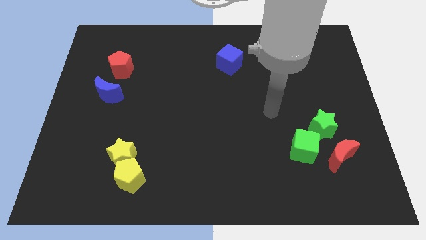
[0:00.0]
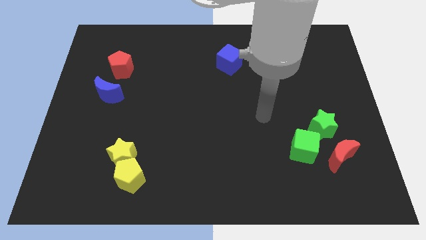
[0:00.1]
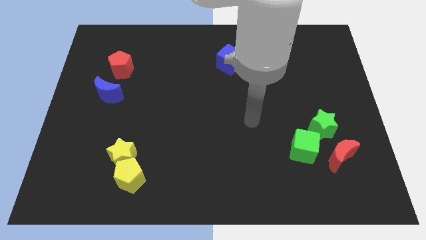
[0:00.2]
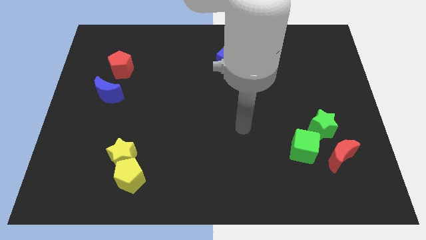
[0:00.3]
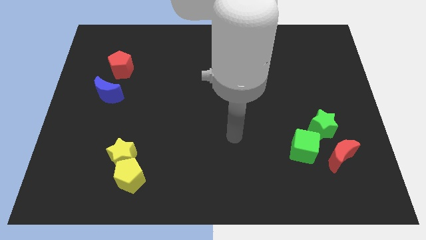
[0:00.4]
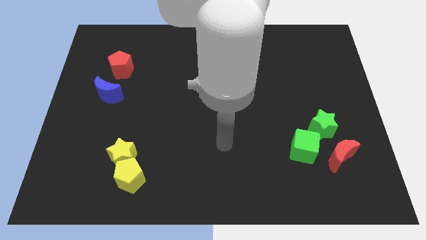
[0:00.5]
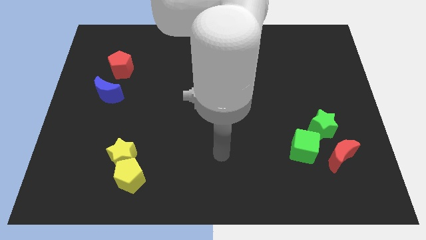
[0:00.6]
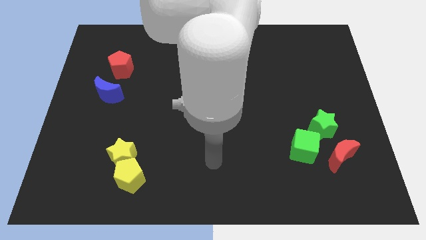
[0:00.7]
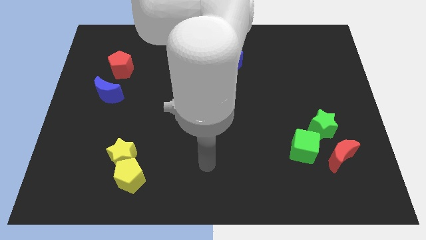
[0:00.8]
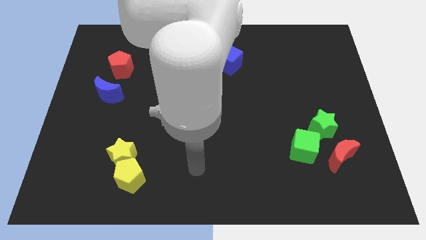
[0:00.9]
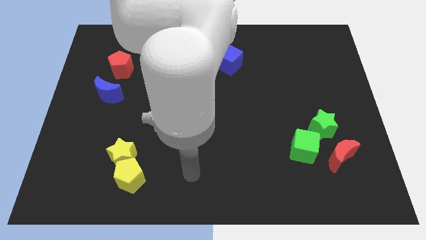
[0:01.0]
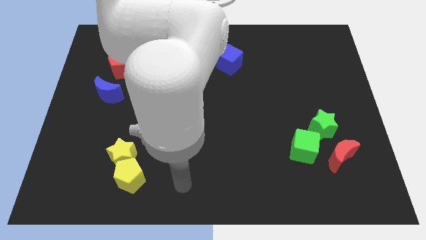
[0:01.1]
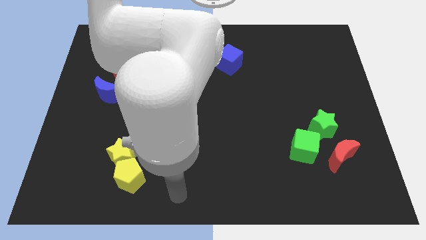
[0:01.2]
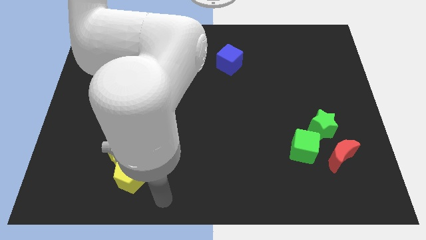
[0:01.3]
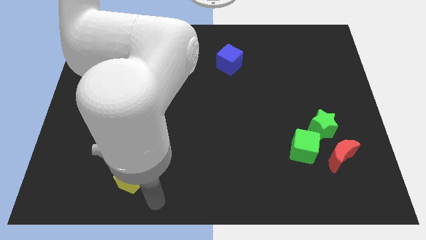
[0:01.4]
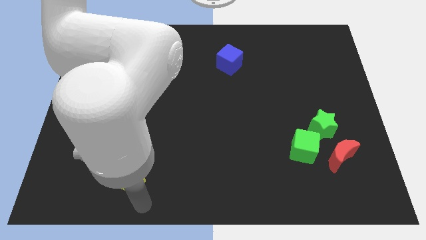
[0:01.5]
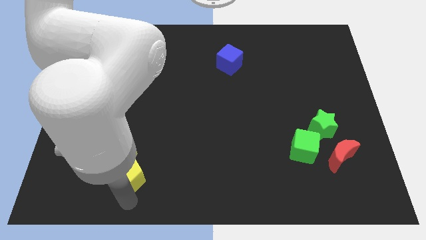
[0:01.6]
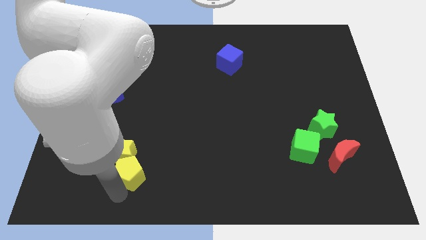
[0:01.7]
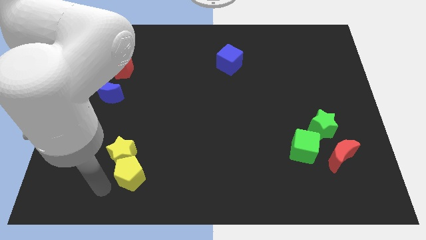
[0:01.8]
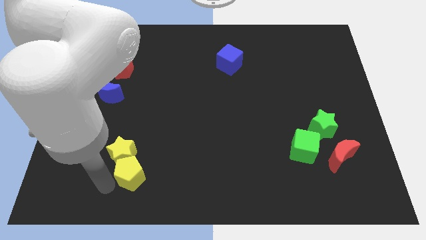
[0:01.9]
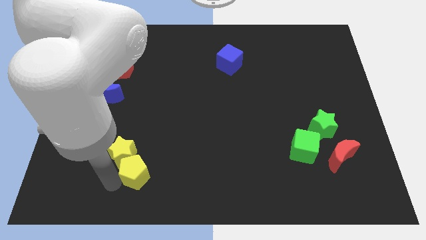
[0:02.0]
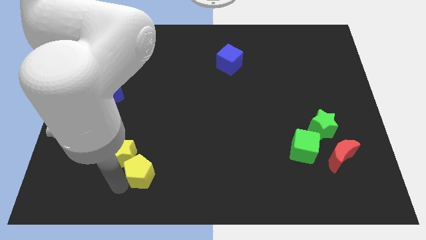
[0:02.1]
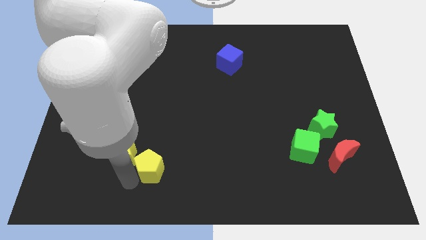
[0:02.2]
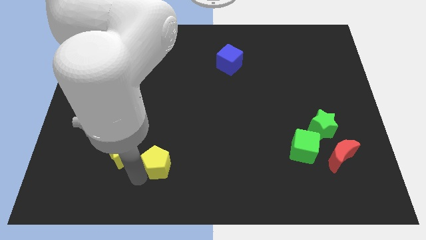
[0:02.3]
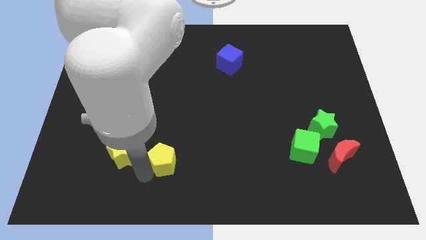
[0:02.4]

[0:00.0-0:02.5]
slightly move the yellow pentagon diagonally up and to the right

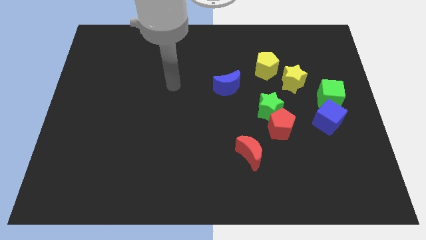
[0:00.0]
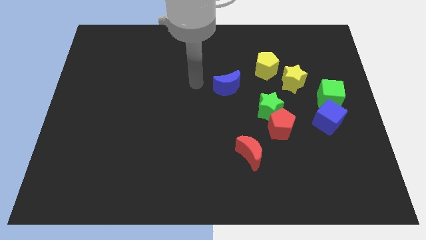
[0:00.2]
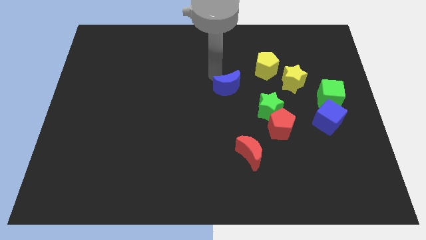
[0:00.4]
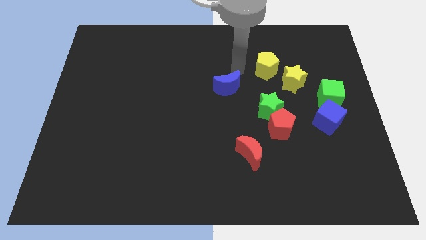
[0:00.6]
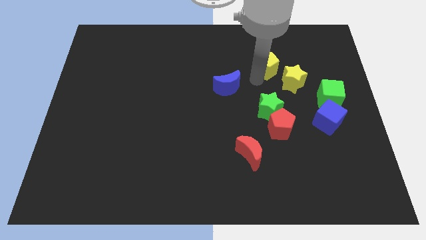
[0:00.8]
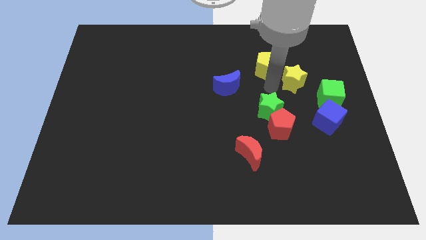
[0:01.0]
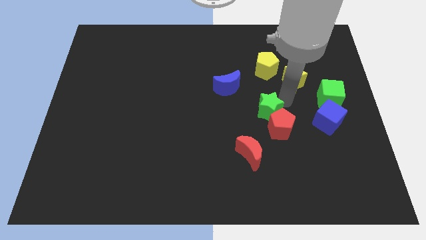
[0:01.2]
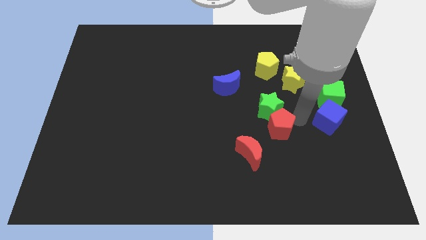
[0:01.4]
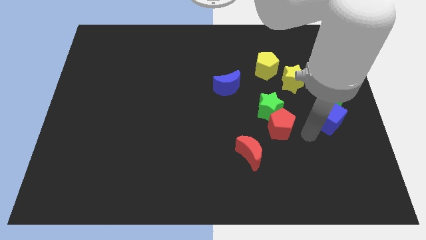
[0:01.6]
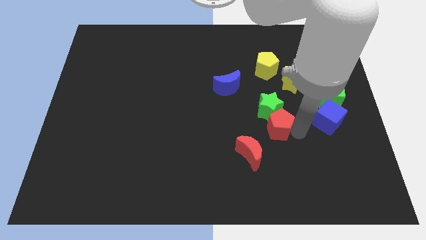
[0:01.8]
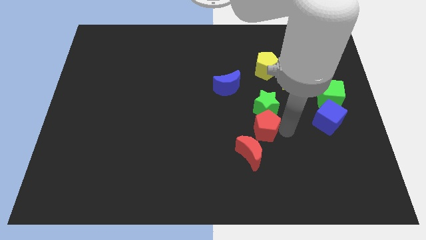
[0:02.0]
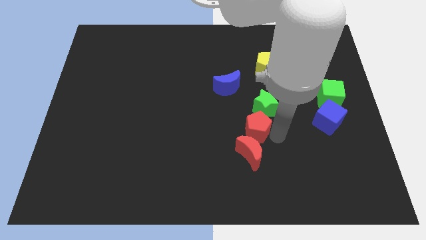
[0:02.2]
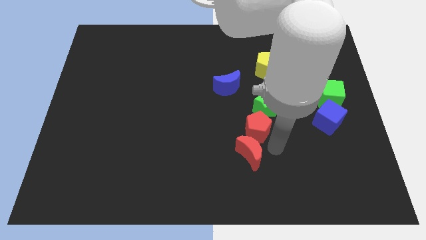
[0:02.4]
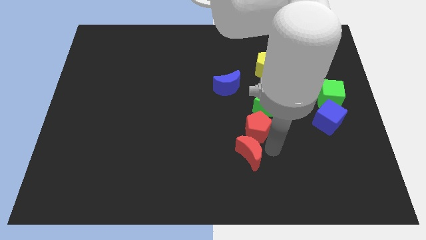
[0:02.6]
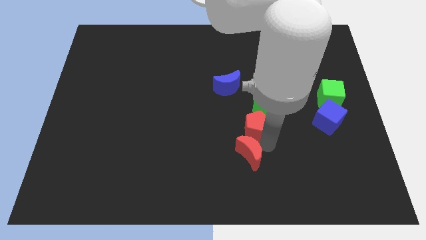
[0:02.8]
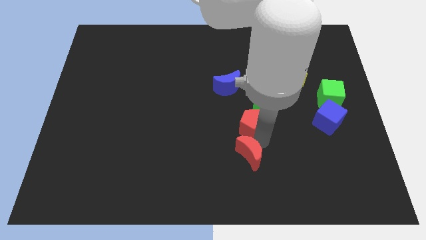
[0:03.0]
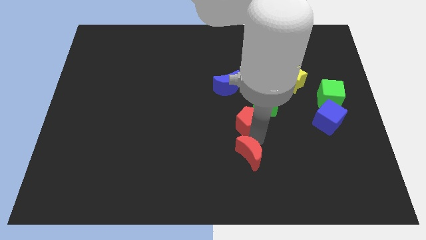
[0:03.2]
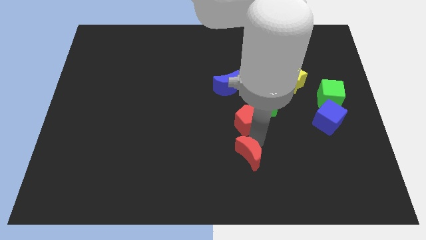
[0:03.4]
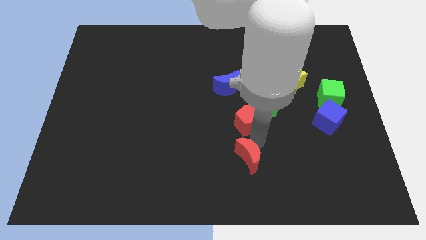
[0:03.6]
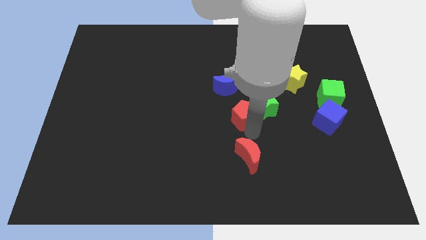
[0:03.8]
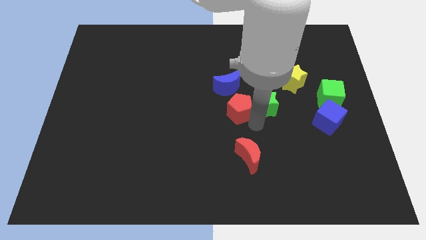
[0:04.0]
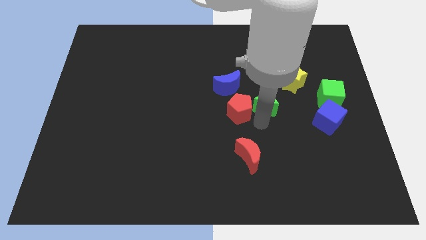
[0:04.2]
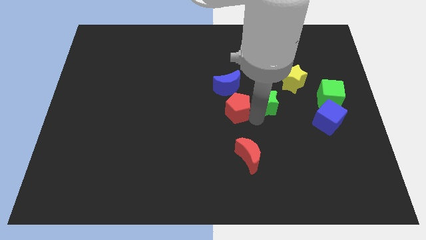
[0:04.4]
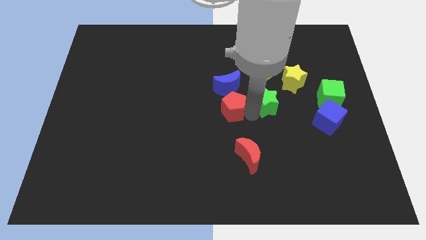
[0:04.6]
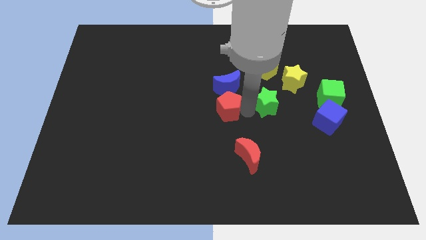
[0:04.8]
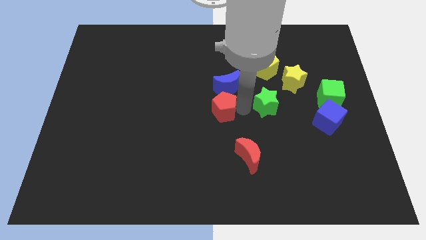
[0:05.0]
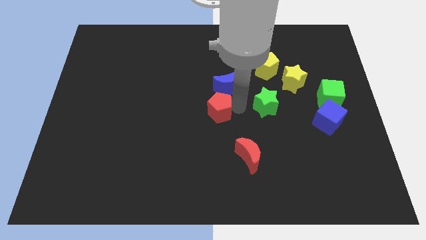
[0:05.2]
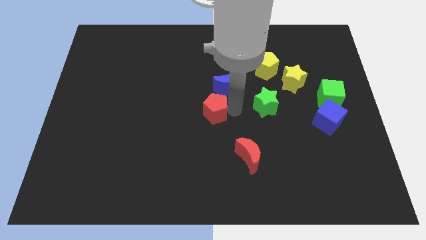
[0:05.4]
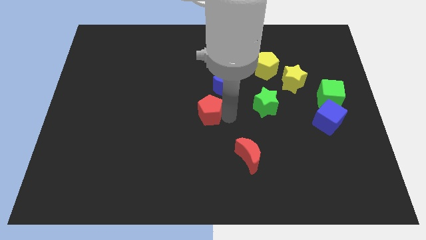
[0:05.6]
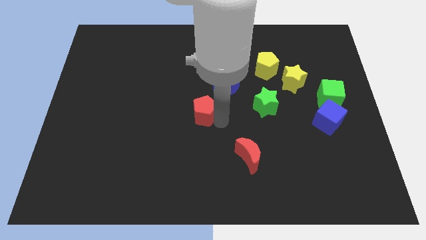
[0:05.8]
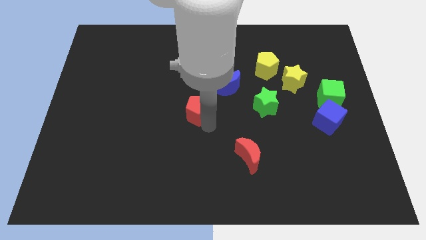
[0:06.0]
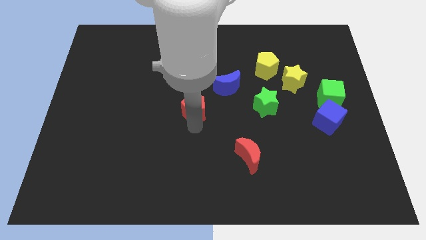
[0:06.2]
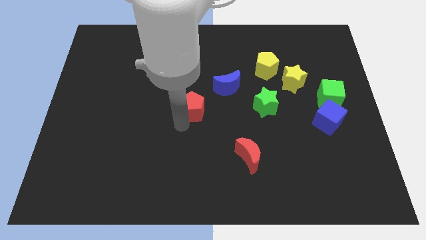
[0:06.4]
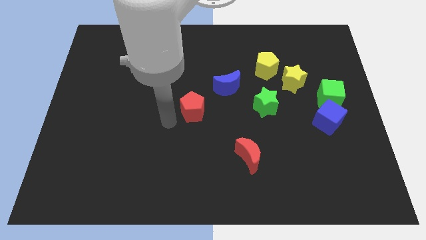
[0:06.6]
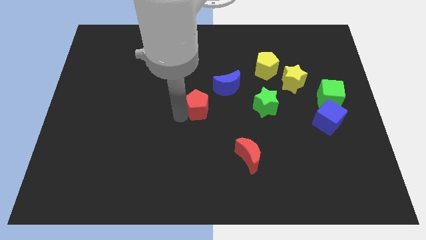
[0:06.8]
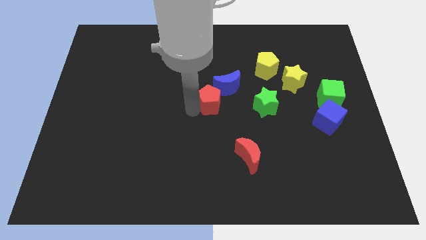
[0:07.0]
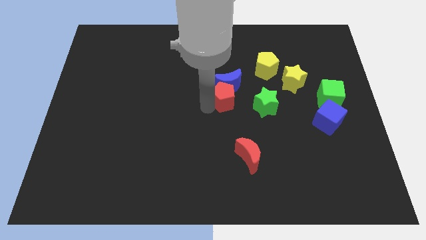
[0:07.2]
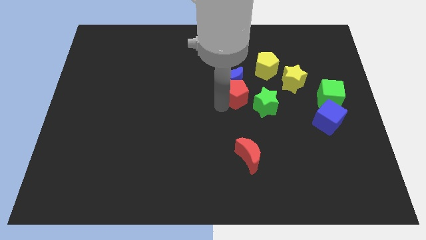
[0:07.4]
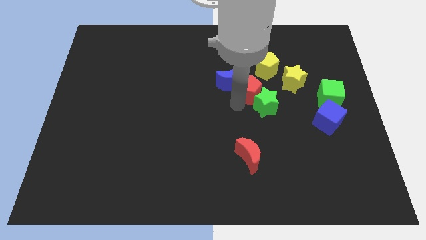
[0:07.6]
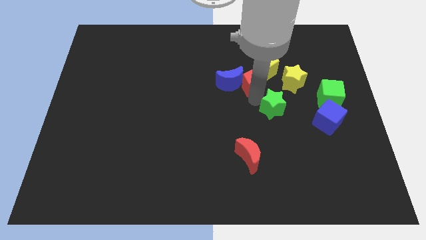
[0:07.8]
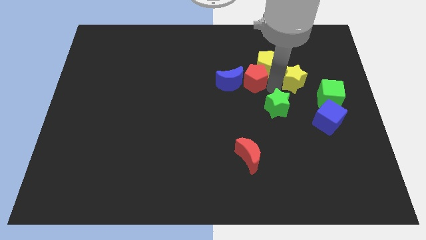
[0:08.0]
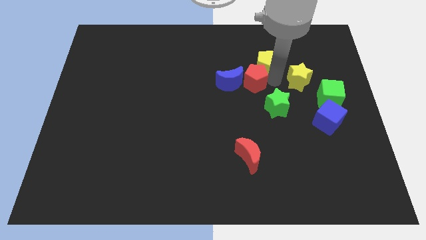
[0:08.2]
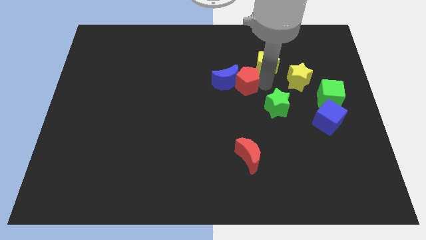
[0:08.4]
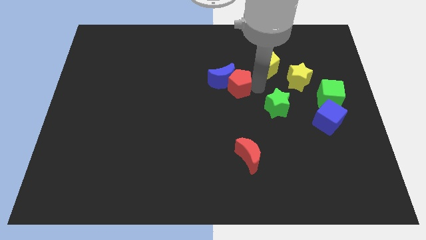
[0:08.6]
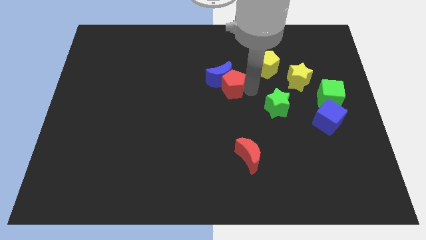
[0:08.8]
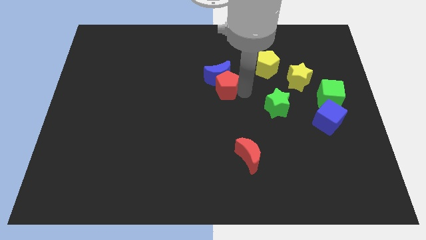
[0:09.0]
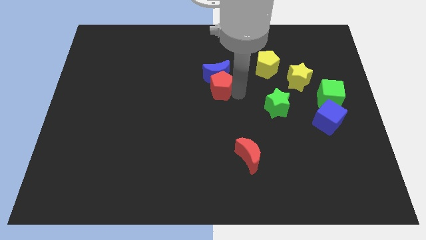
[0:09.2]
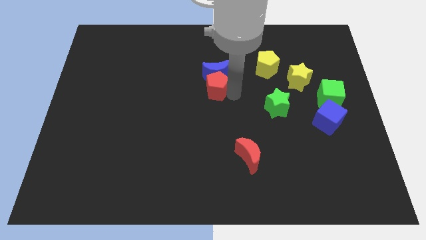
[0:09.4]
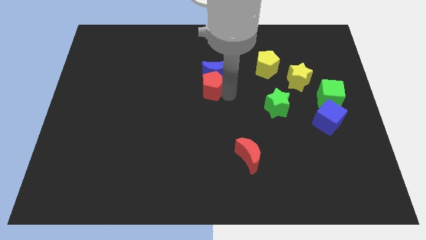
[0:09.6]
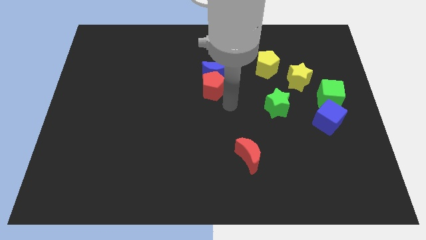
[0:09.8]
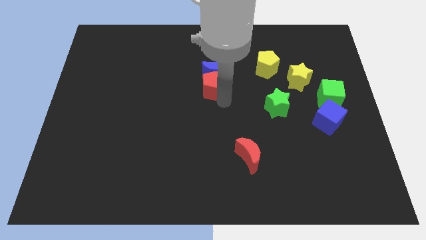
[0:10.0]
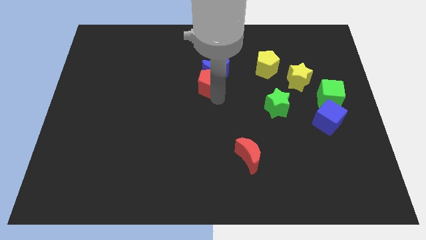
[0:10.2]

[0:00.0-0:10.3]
move the red pentagon up and to the left

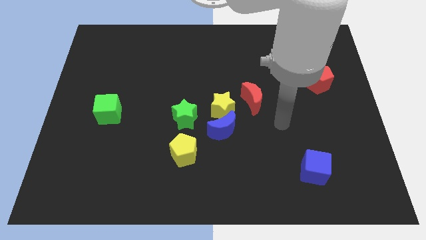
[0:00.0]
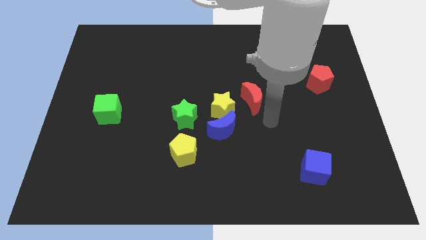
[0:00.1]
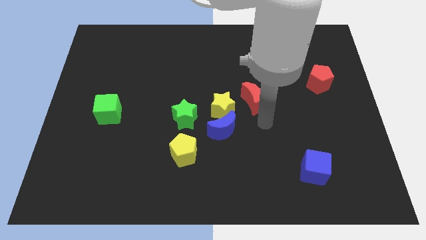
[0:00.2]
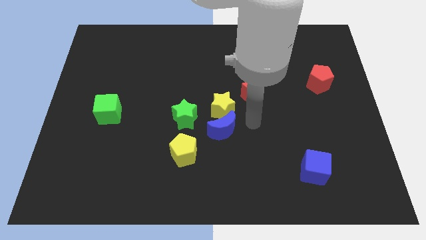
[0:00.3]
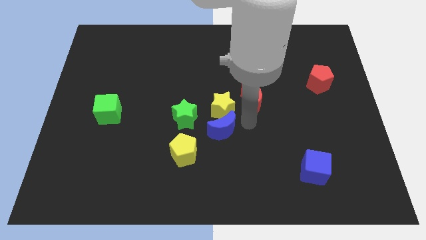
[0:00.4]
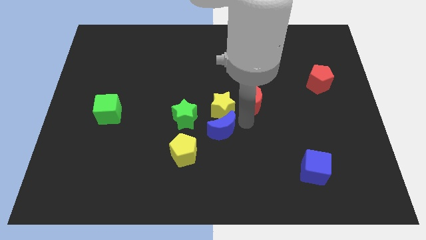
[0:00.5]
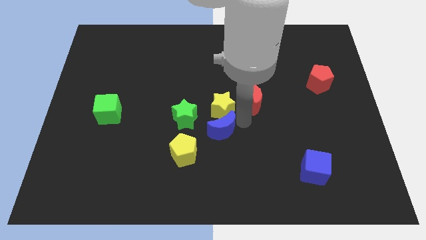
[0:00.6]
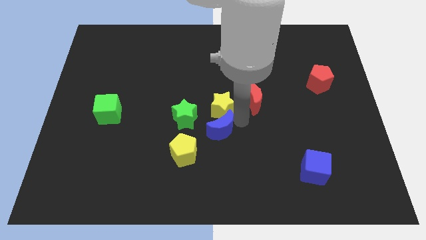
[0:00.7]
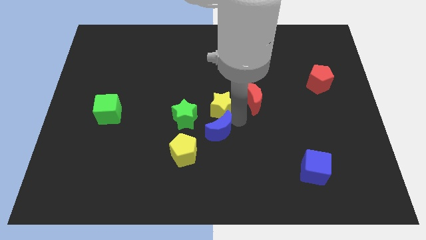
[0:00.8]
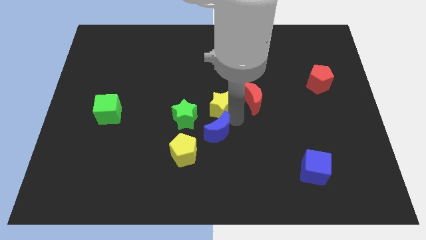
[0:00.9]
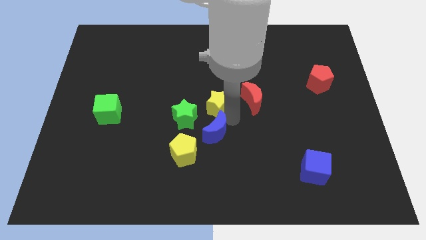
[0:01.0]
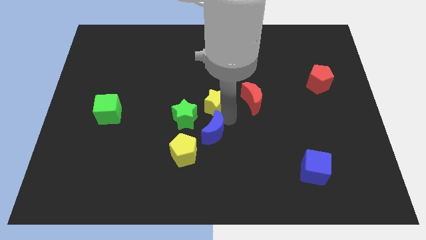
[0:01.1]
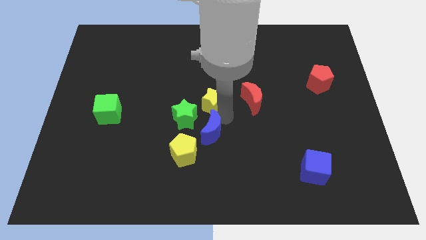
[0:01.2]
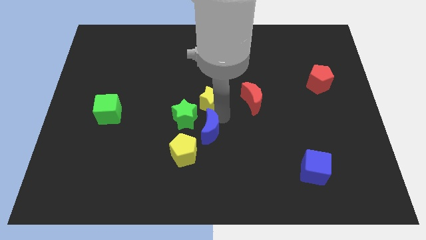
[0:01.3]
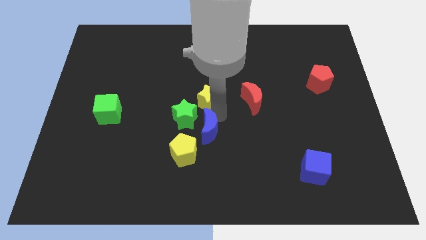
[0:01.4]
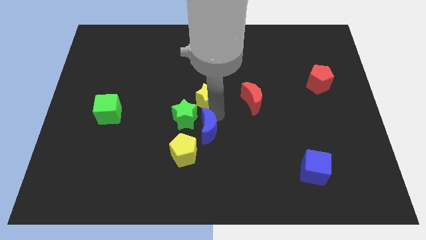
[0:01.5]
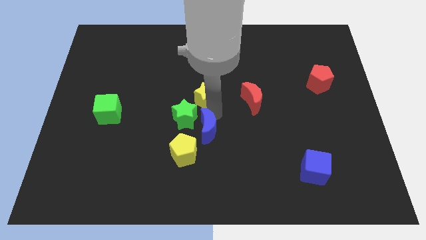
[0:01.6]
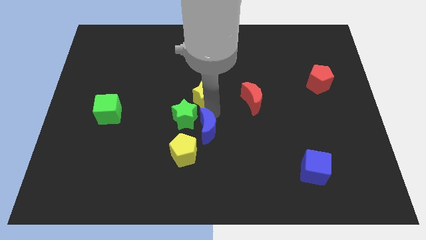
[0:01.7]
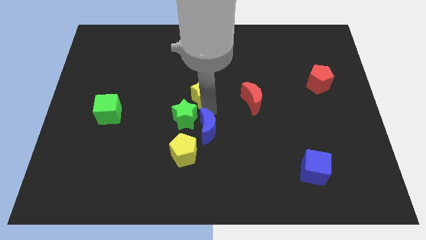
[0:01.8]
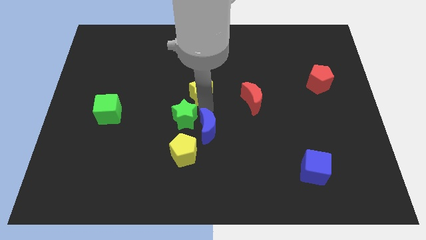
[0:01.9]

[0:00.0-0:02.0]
push the yellow star a little diagonally upwards and to the left
